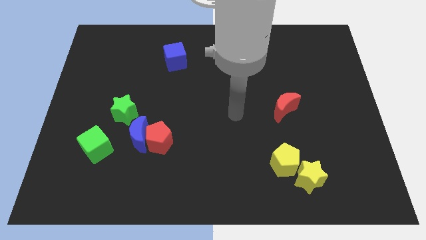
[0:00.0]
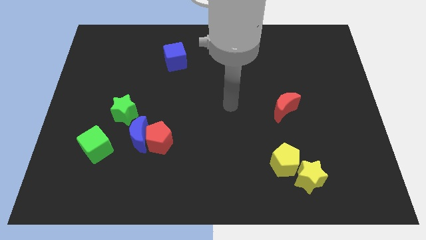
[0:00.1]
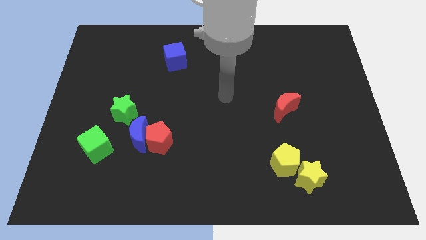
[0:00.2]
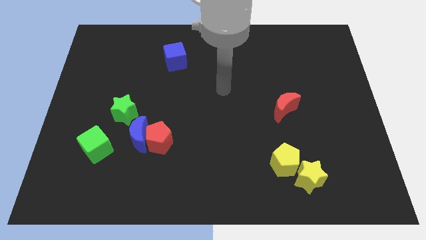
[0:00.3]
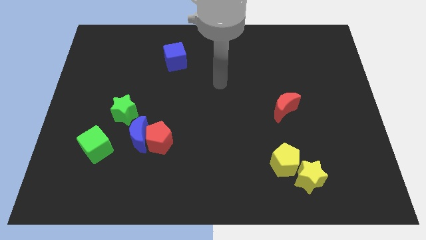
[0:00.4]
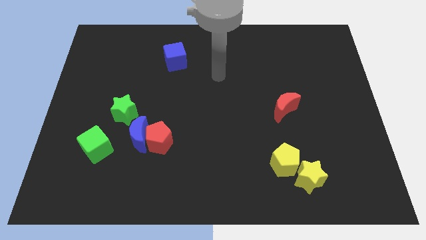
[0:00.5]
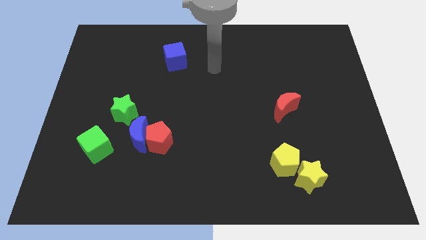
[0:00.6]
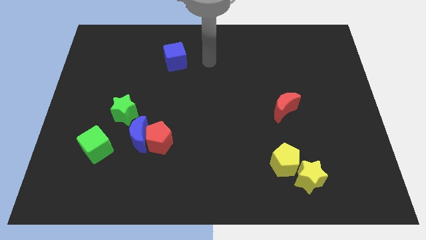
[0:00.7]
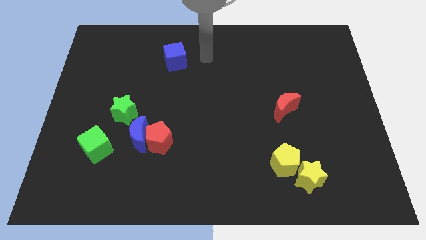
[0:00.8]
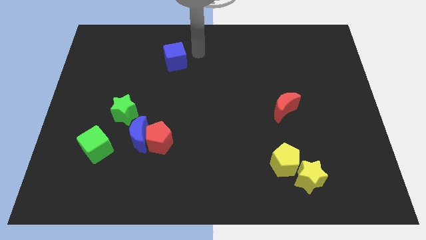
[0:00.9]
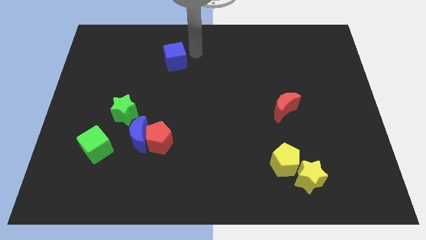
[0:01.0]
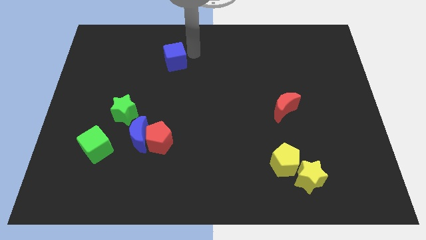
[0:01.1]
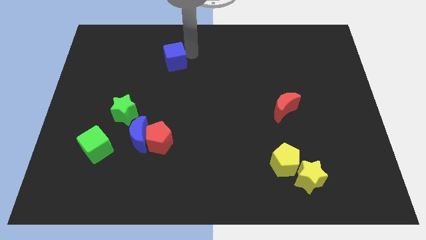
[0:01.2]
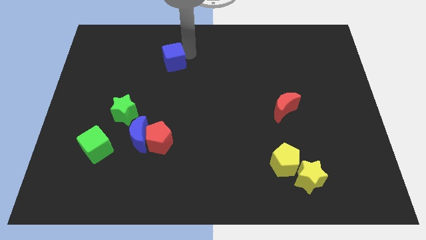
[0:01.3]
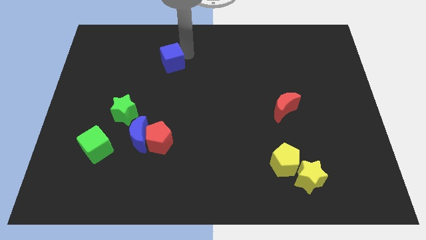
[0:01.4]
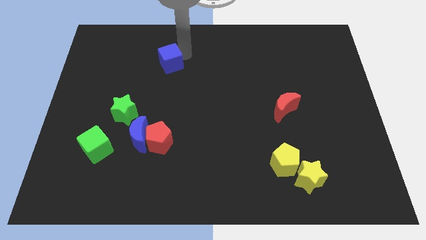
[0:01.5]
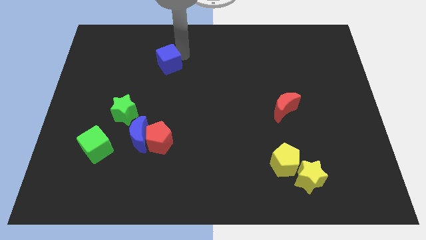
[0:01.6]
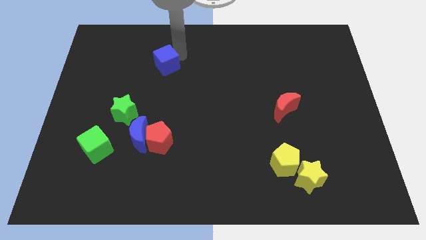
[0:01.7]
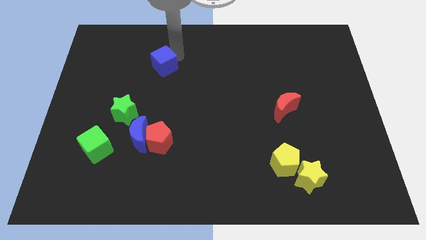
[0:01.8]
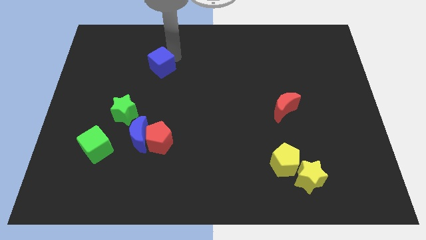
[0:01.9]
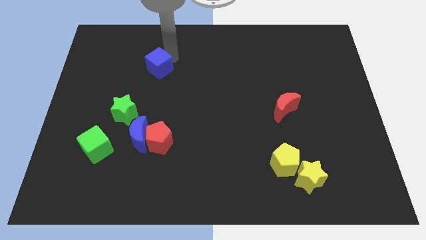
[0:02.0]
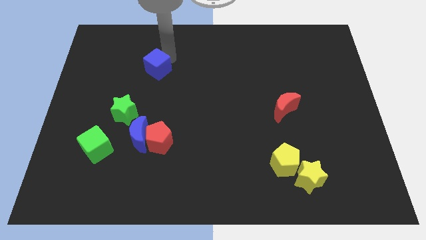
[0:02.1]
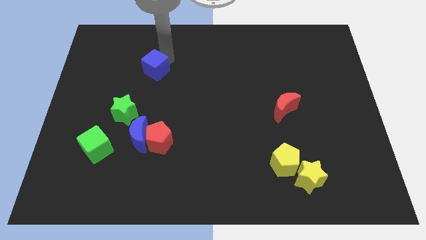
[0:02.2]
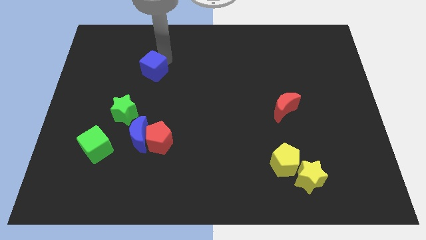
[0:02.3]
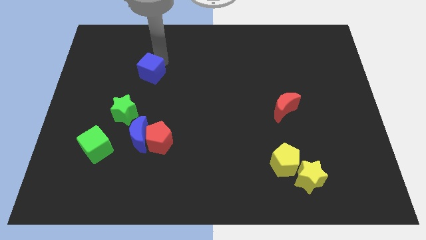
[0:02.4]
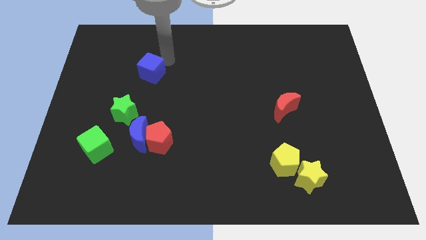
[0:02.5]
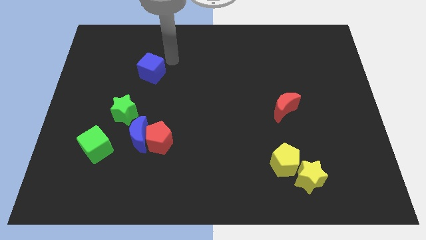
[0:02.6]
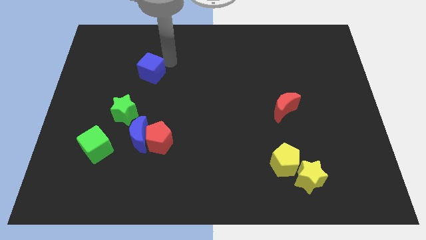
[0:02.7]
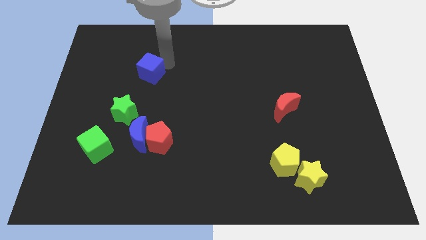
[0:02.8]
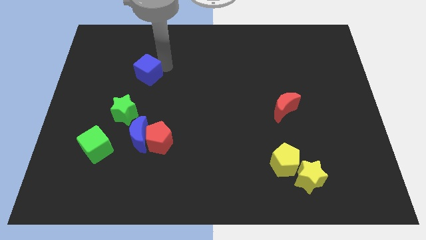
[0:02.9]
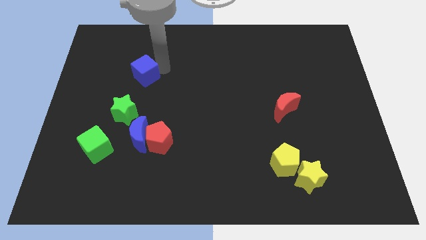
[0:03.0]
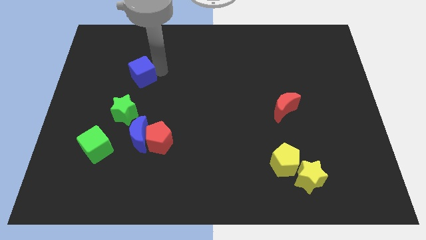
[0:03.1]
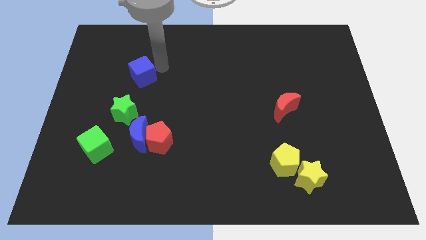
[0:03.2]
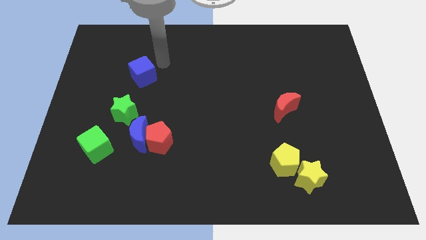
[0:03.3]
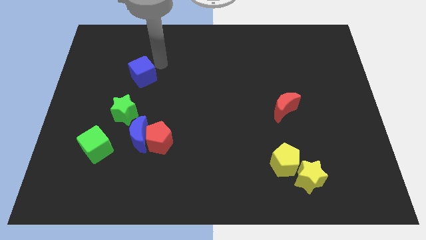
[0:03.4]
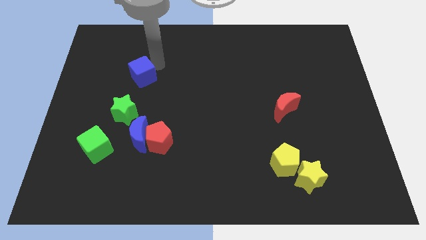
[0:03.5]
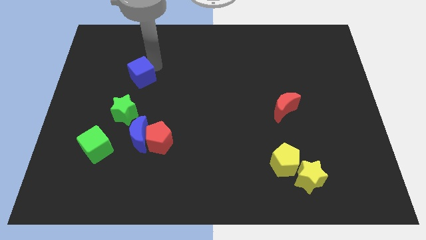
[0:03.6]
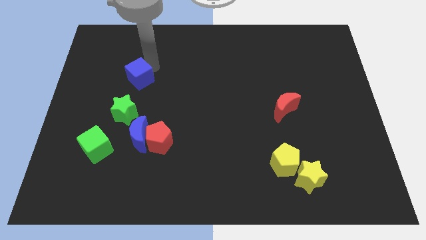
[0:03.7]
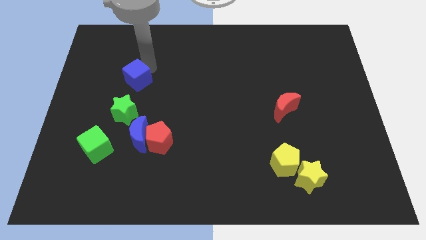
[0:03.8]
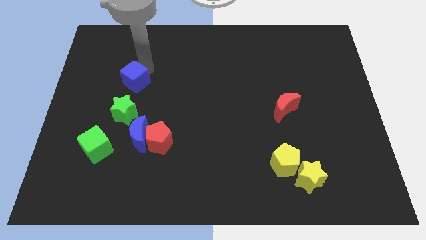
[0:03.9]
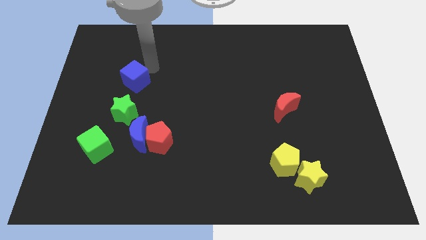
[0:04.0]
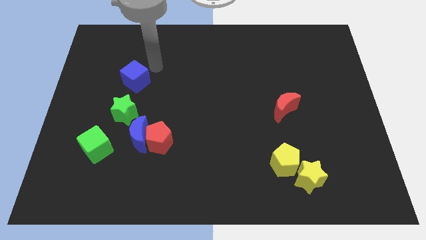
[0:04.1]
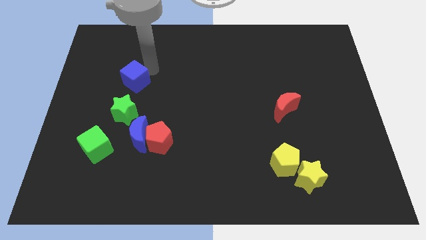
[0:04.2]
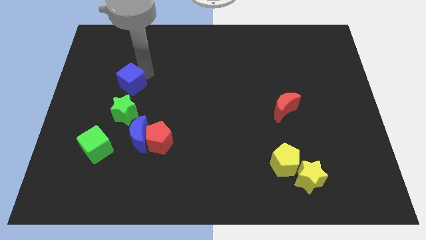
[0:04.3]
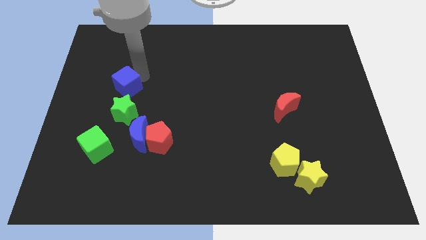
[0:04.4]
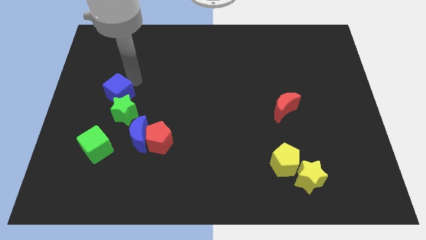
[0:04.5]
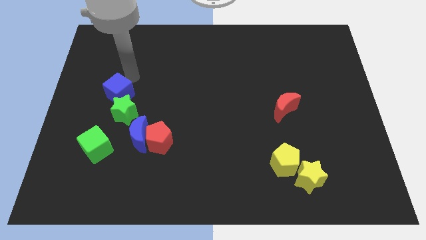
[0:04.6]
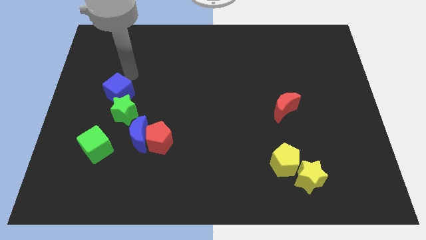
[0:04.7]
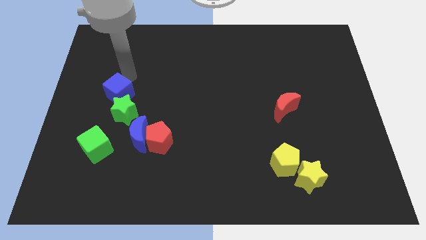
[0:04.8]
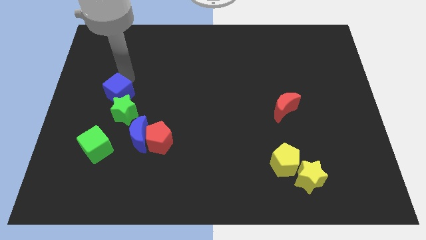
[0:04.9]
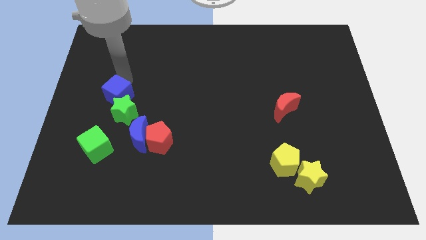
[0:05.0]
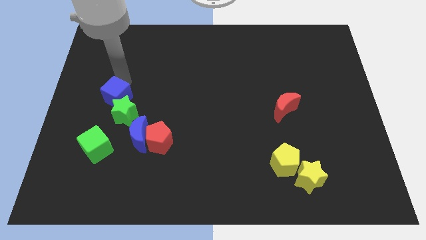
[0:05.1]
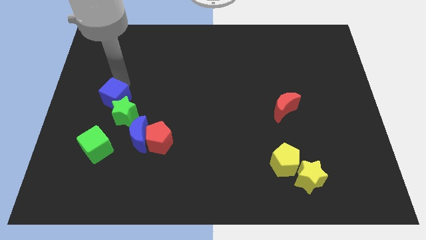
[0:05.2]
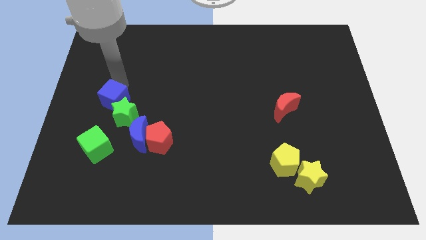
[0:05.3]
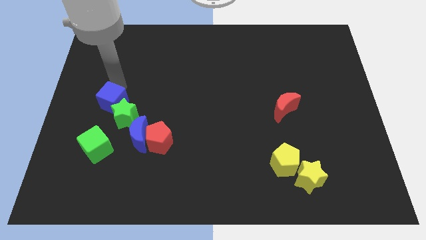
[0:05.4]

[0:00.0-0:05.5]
slide the blue cube diagonally up and to the left of the blue moon

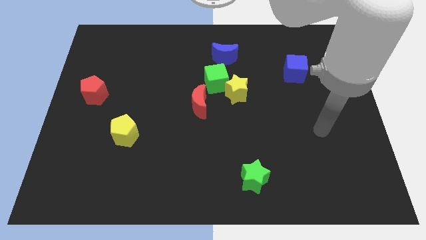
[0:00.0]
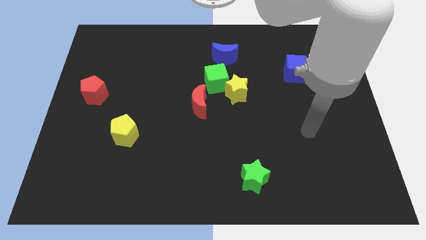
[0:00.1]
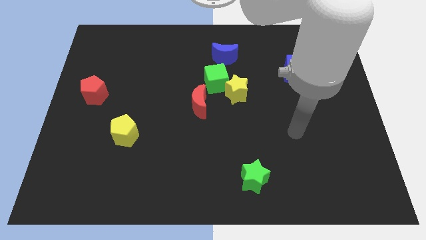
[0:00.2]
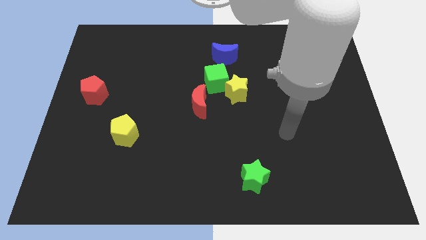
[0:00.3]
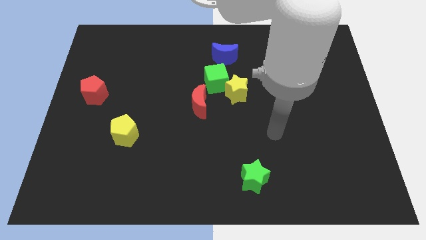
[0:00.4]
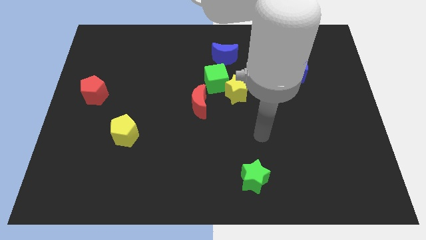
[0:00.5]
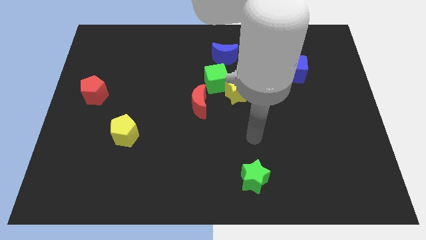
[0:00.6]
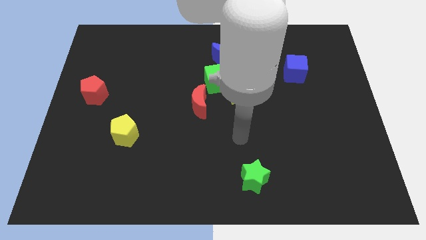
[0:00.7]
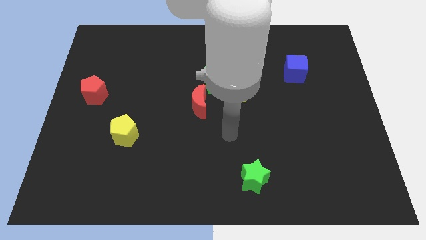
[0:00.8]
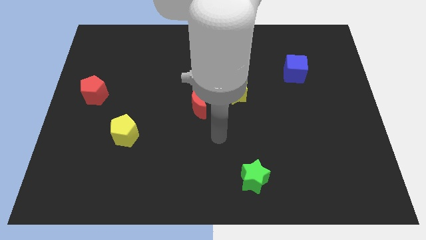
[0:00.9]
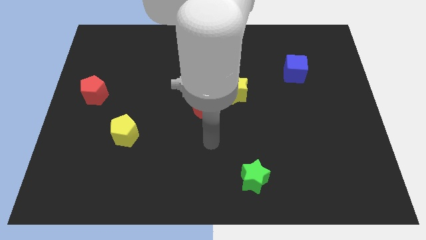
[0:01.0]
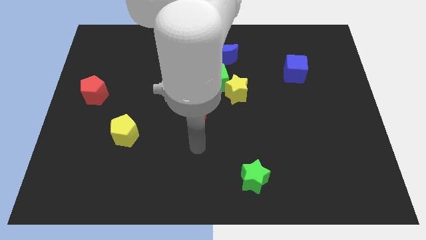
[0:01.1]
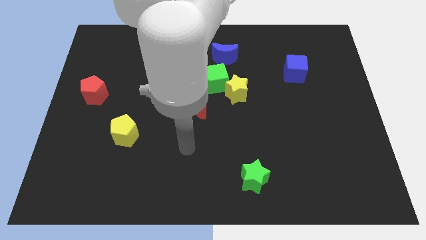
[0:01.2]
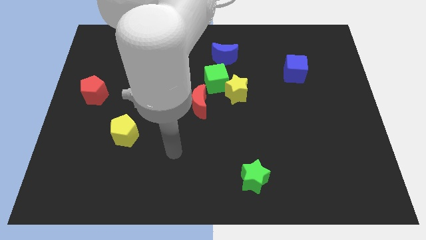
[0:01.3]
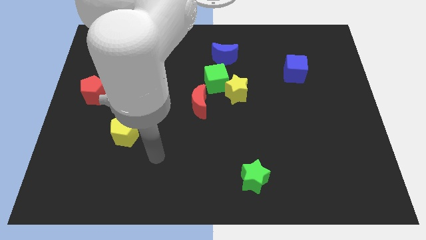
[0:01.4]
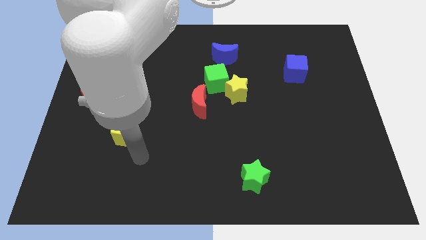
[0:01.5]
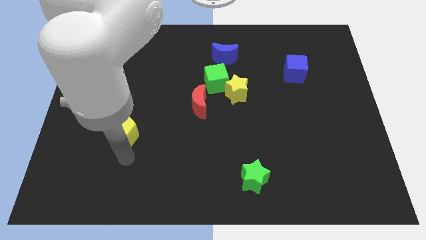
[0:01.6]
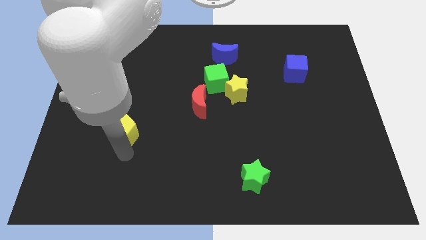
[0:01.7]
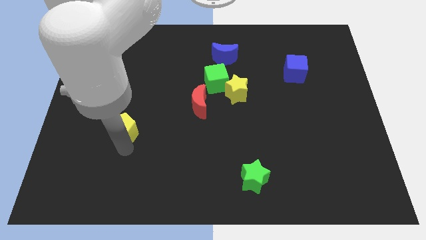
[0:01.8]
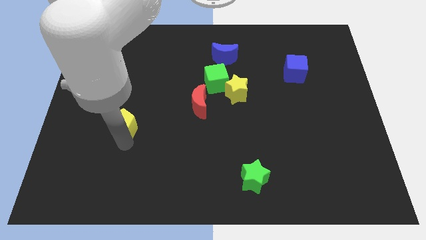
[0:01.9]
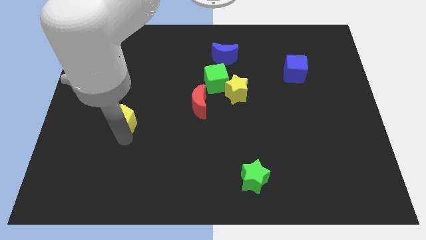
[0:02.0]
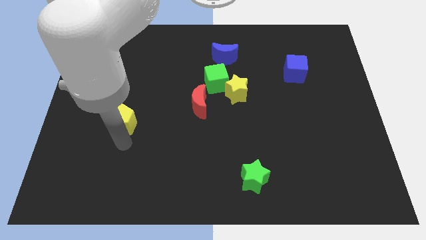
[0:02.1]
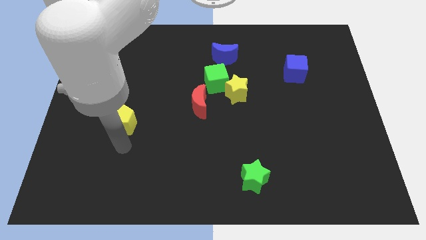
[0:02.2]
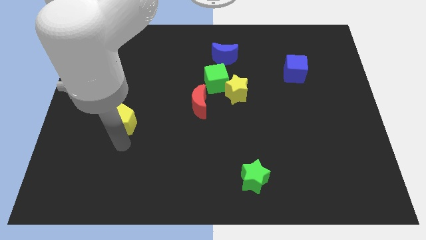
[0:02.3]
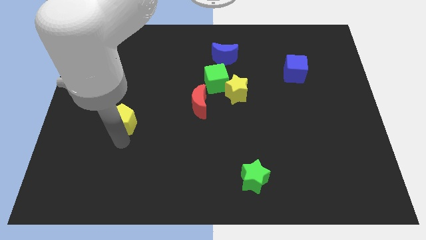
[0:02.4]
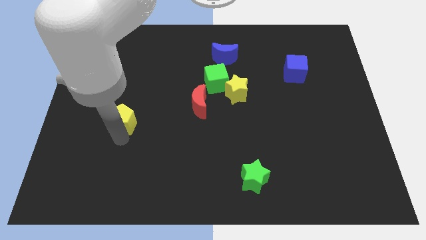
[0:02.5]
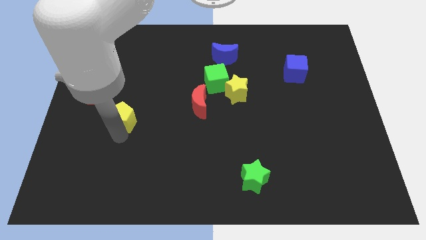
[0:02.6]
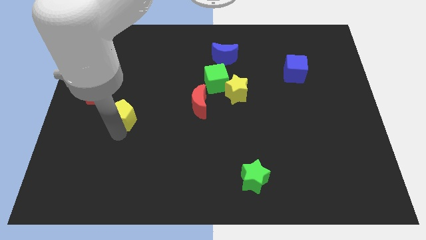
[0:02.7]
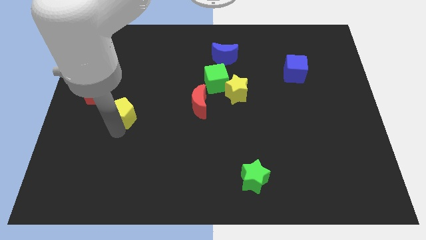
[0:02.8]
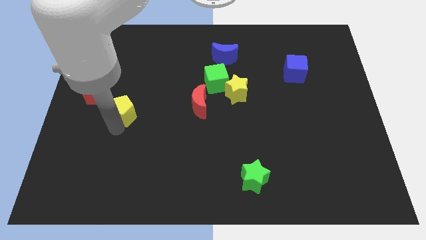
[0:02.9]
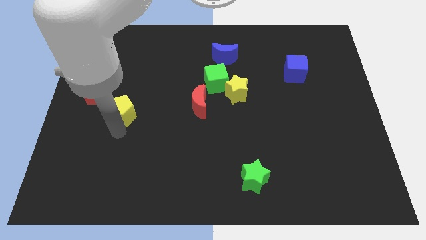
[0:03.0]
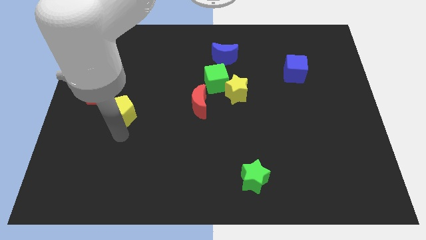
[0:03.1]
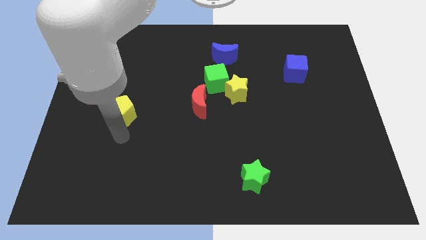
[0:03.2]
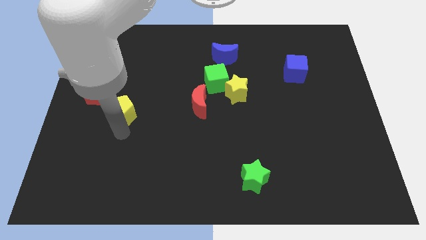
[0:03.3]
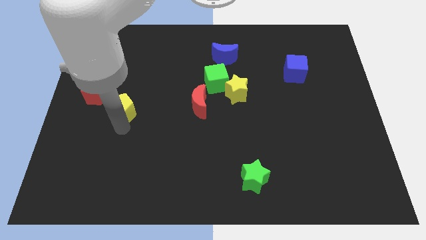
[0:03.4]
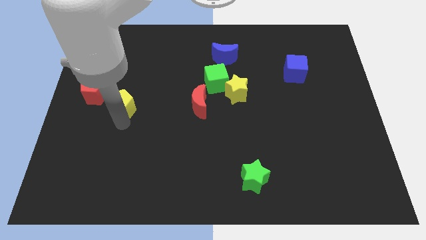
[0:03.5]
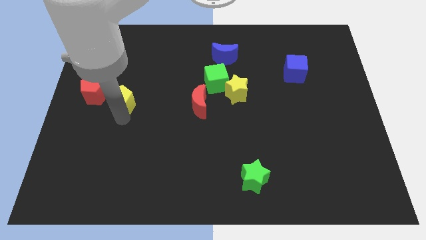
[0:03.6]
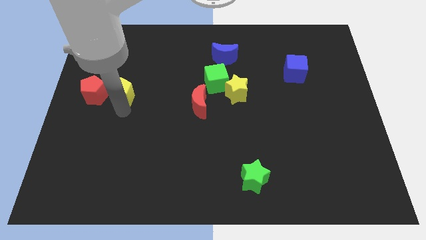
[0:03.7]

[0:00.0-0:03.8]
put the yellow pentagon to the top right of the red pentagon
